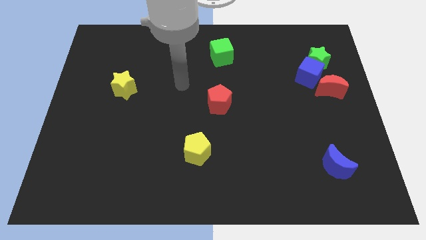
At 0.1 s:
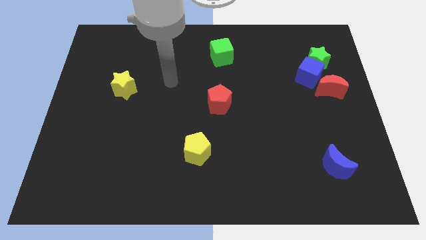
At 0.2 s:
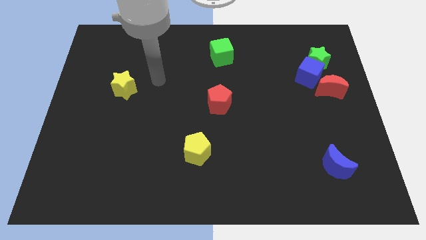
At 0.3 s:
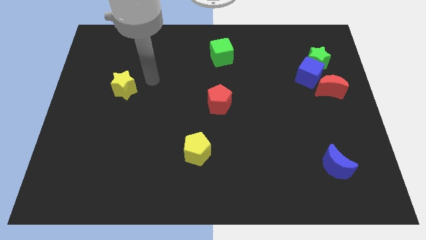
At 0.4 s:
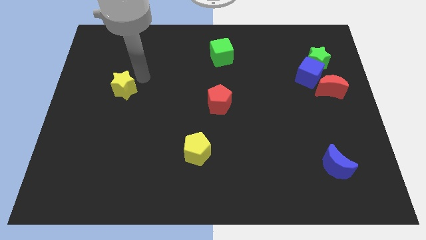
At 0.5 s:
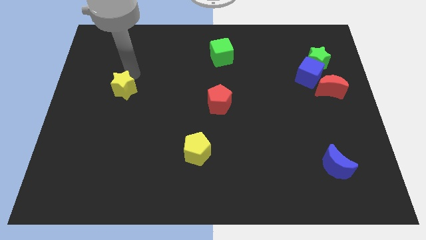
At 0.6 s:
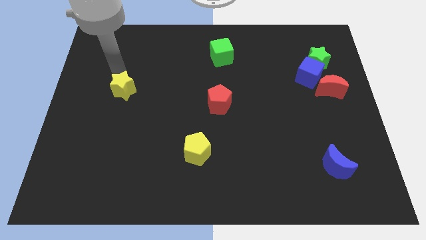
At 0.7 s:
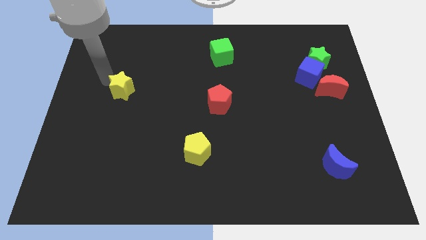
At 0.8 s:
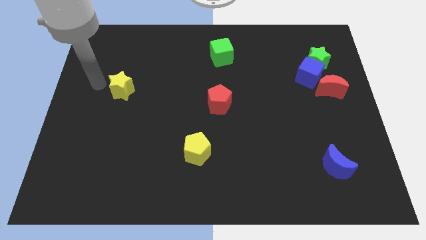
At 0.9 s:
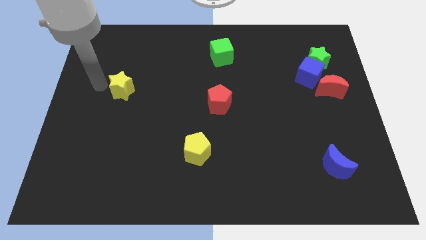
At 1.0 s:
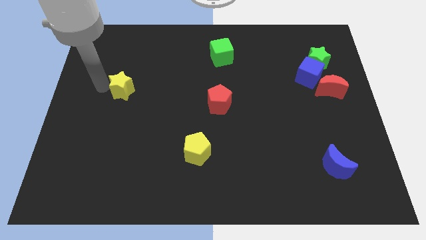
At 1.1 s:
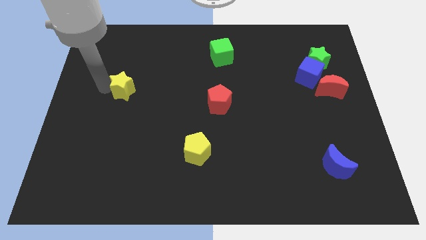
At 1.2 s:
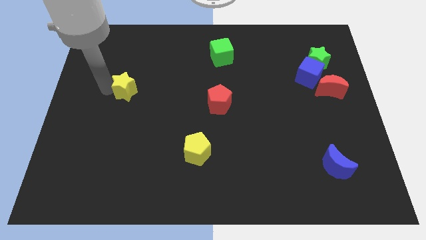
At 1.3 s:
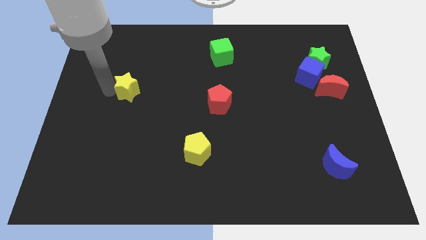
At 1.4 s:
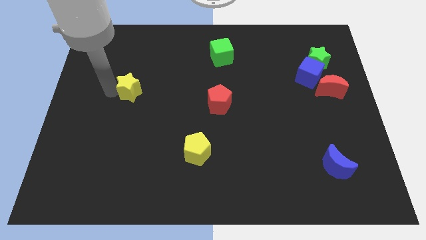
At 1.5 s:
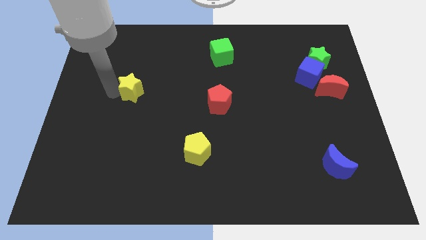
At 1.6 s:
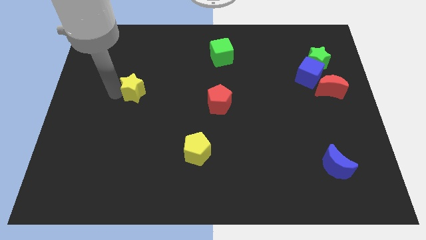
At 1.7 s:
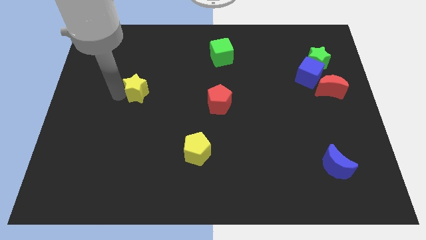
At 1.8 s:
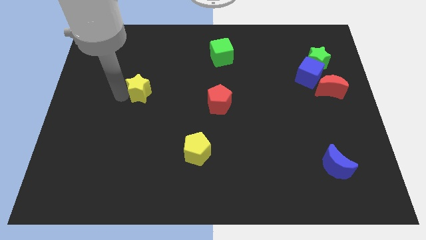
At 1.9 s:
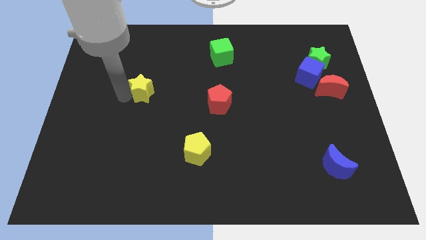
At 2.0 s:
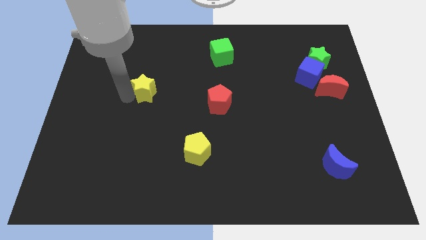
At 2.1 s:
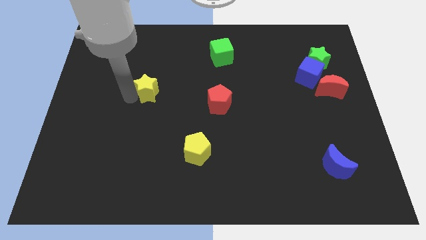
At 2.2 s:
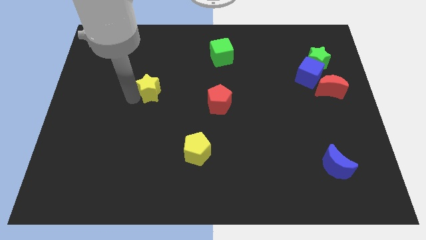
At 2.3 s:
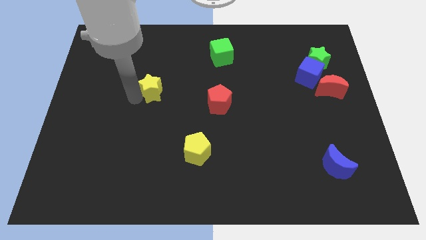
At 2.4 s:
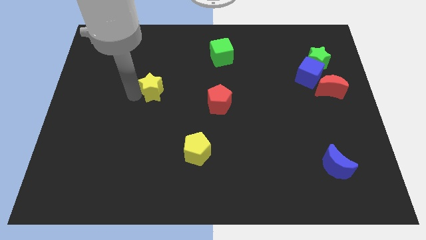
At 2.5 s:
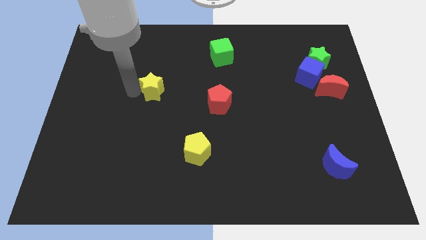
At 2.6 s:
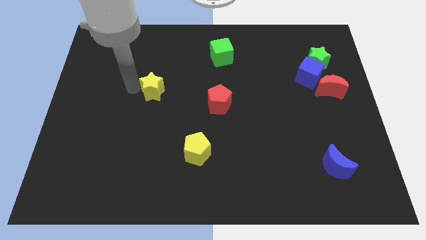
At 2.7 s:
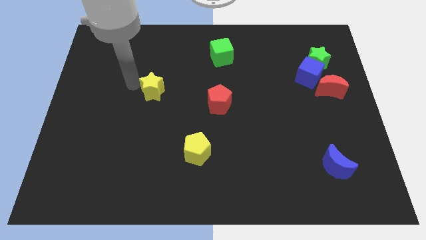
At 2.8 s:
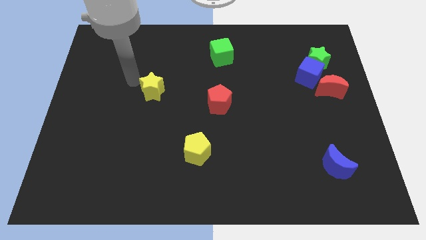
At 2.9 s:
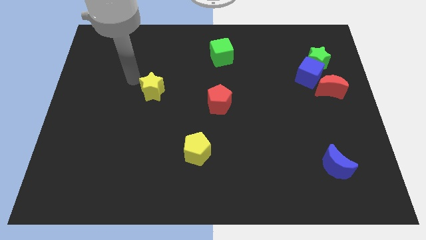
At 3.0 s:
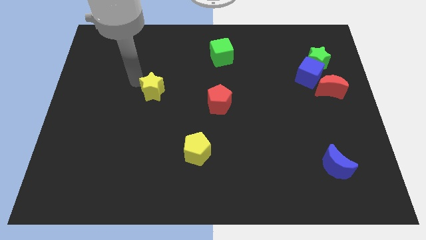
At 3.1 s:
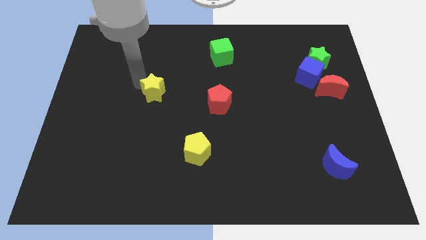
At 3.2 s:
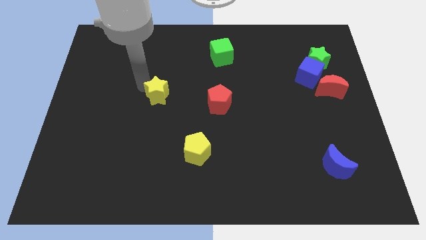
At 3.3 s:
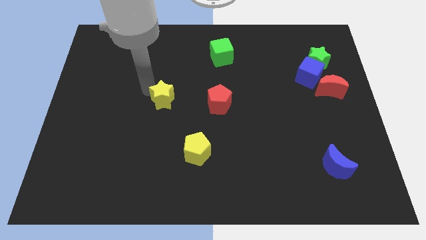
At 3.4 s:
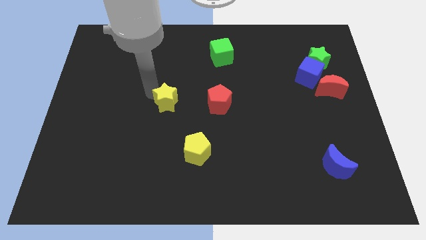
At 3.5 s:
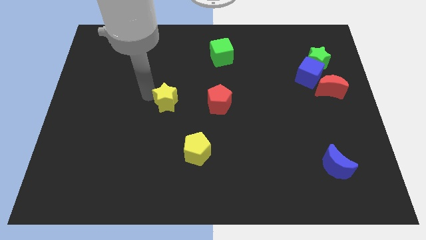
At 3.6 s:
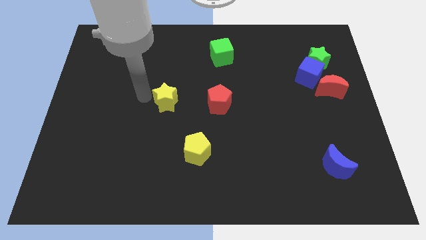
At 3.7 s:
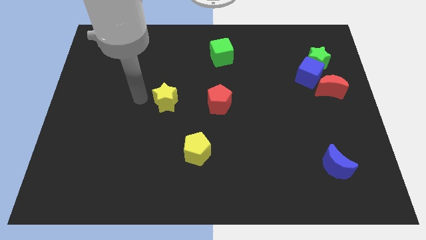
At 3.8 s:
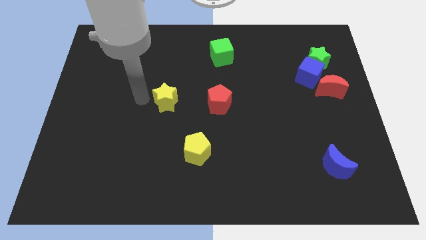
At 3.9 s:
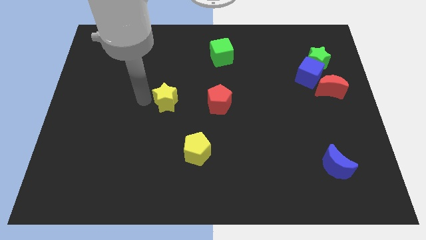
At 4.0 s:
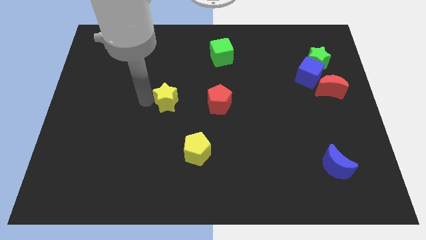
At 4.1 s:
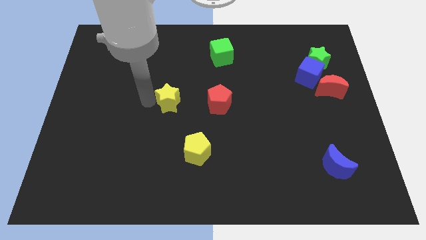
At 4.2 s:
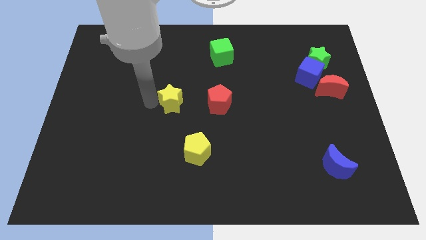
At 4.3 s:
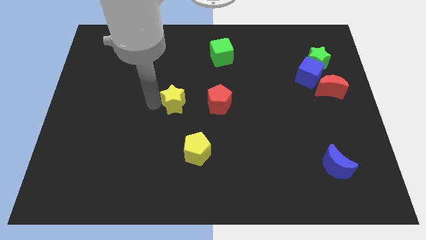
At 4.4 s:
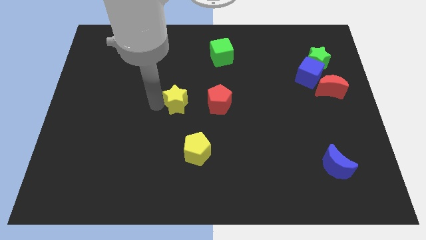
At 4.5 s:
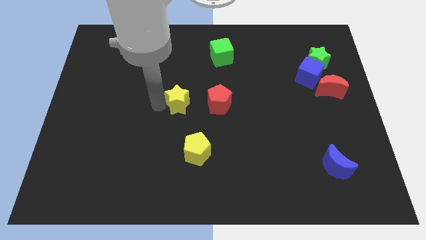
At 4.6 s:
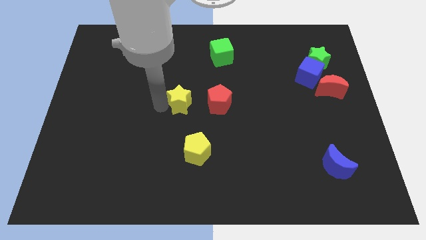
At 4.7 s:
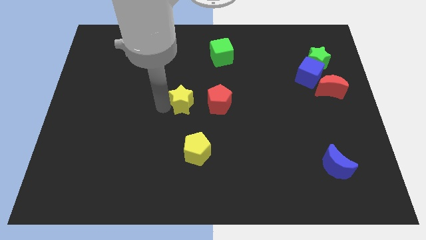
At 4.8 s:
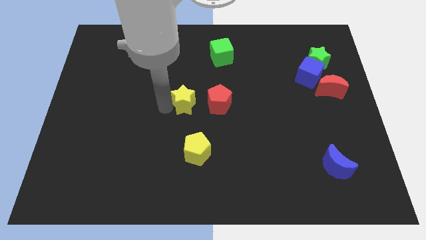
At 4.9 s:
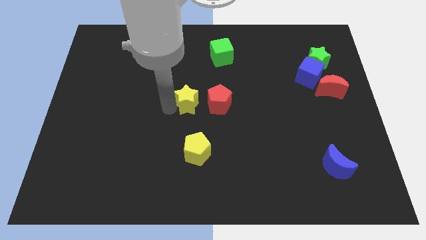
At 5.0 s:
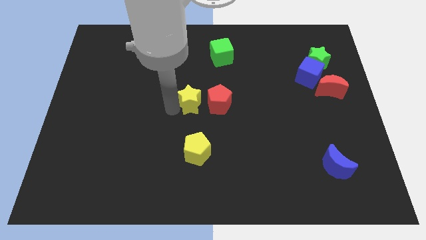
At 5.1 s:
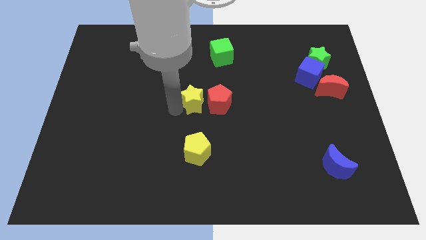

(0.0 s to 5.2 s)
put the yellow star next to the red pentagon

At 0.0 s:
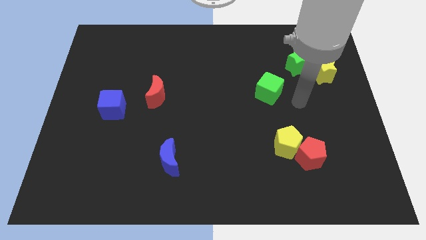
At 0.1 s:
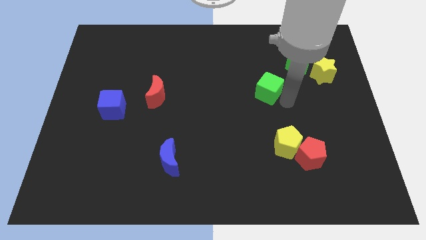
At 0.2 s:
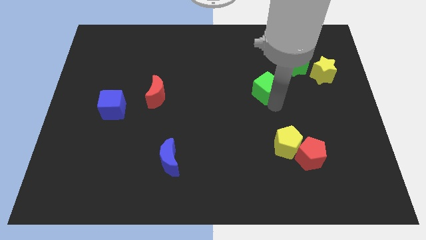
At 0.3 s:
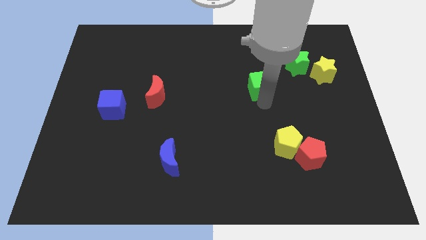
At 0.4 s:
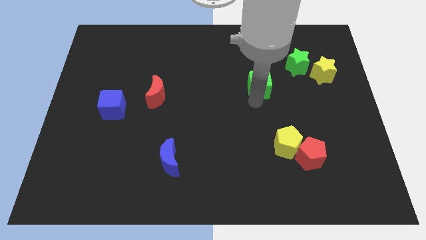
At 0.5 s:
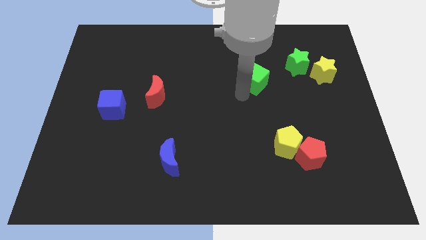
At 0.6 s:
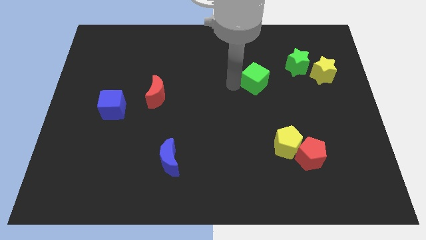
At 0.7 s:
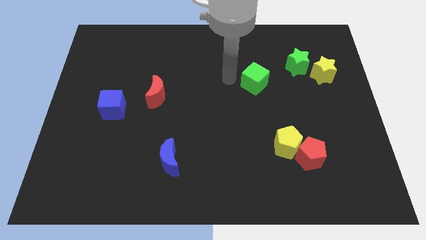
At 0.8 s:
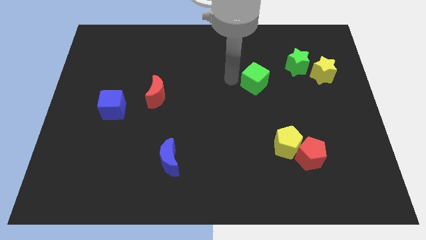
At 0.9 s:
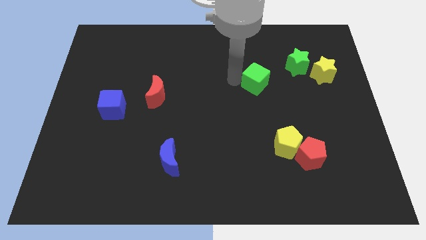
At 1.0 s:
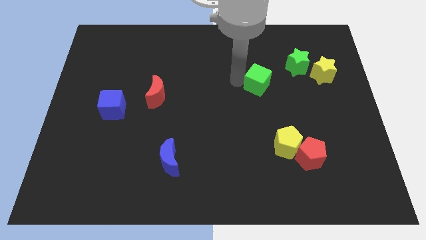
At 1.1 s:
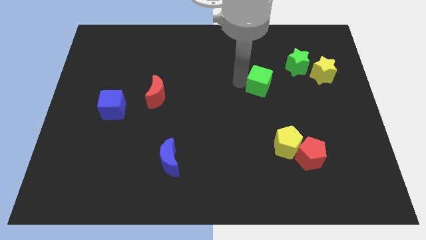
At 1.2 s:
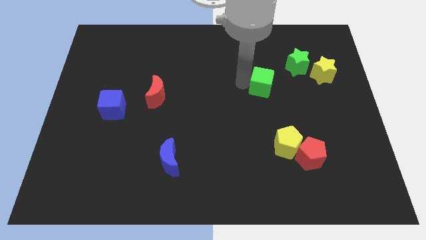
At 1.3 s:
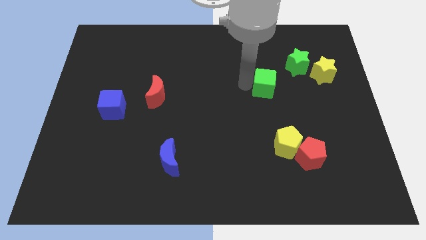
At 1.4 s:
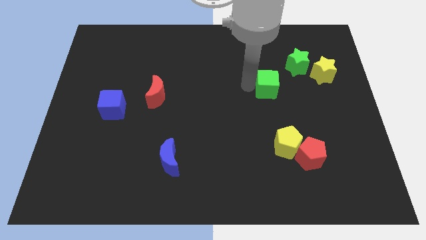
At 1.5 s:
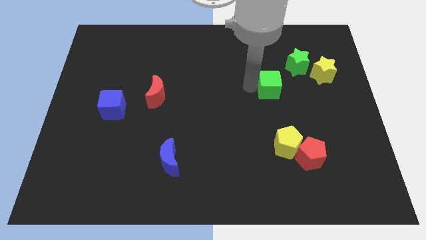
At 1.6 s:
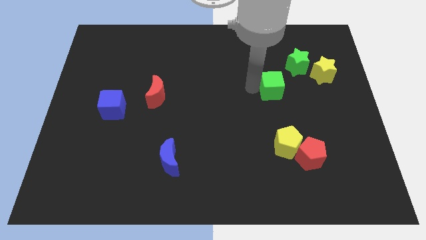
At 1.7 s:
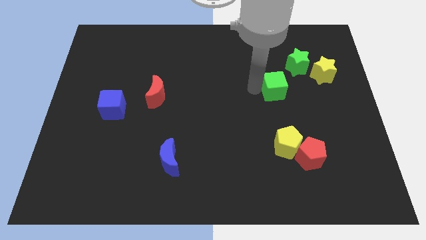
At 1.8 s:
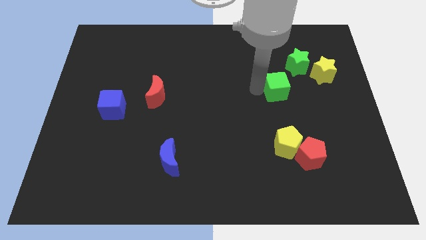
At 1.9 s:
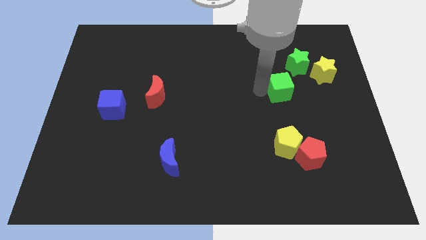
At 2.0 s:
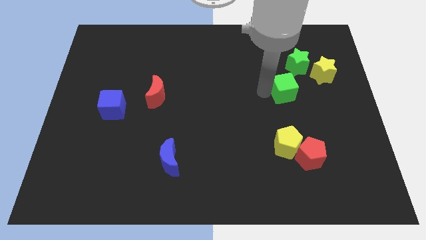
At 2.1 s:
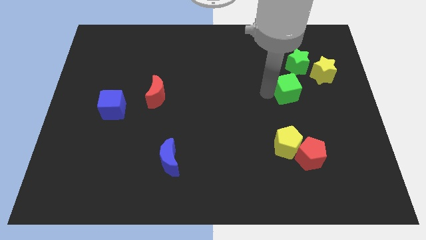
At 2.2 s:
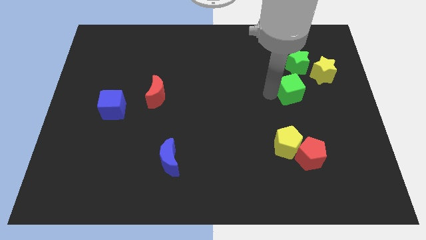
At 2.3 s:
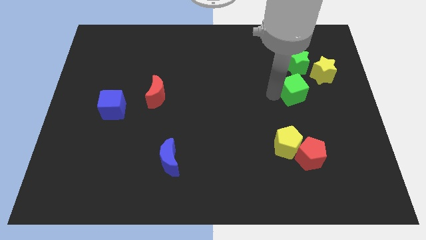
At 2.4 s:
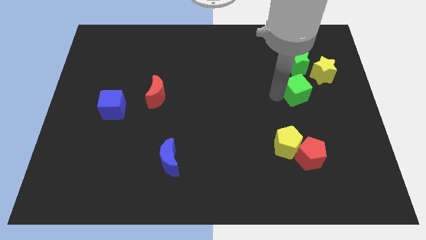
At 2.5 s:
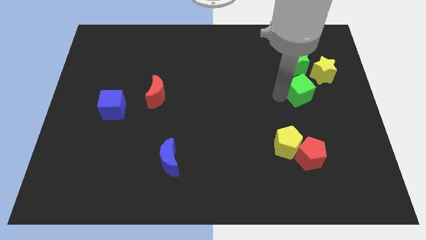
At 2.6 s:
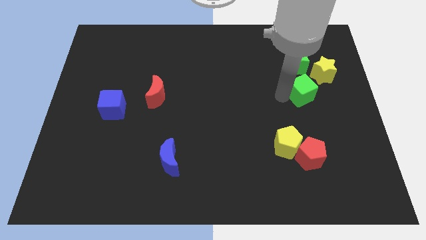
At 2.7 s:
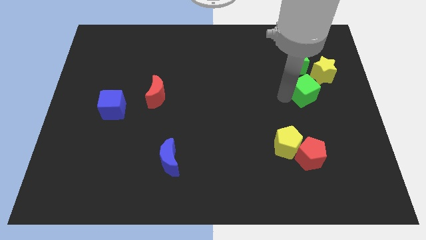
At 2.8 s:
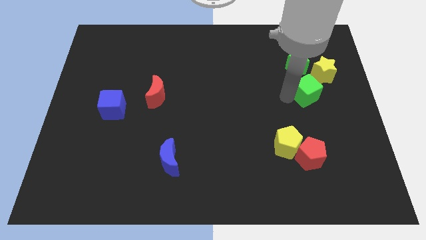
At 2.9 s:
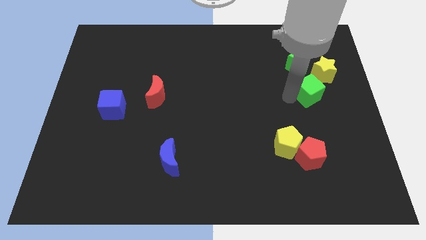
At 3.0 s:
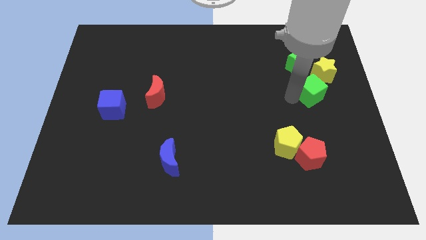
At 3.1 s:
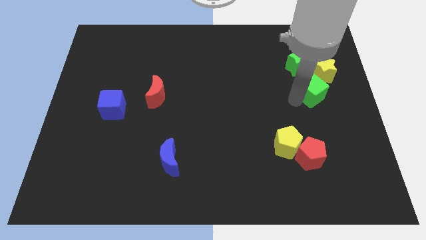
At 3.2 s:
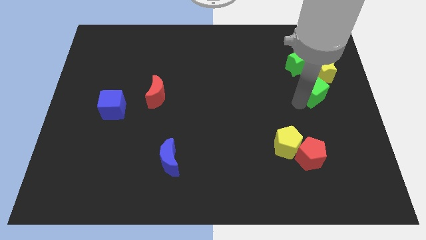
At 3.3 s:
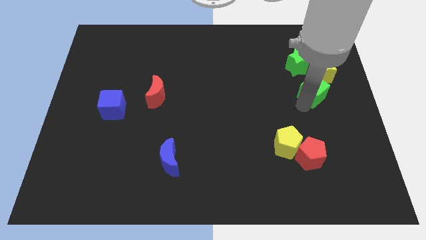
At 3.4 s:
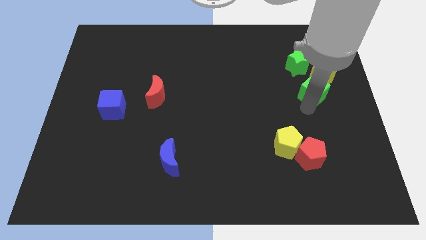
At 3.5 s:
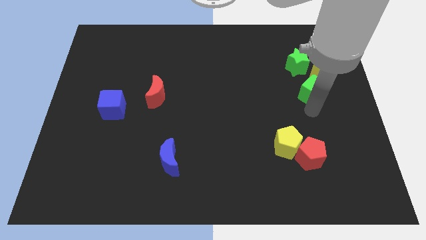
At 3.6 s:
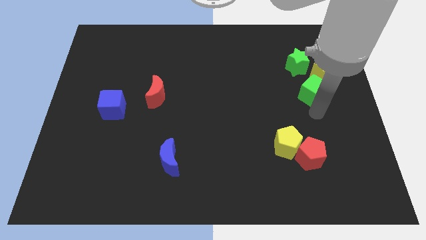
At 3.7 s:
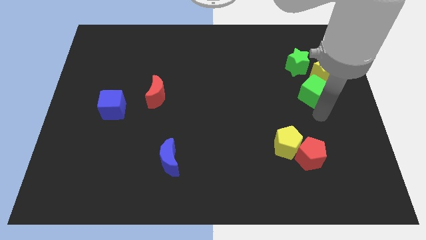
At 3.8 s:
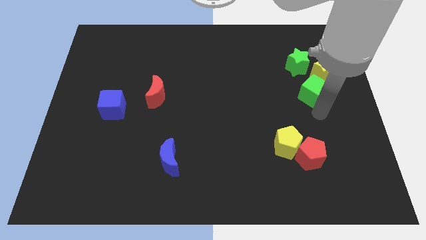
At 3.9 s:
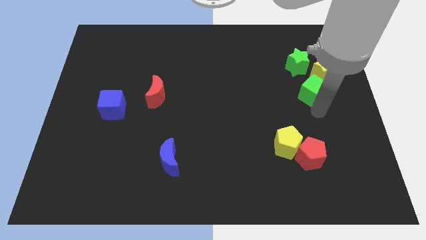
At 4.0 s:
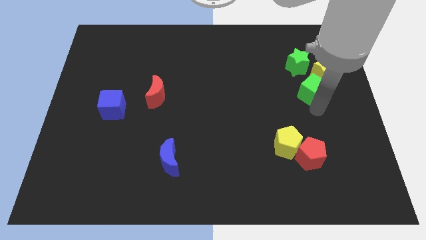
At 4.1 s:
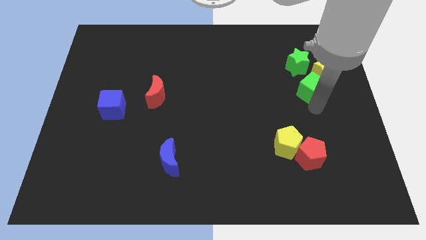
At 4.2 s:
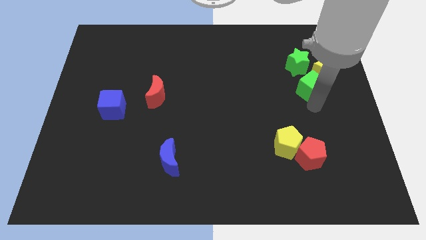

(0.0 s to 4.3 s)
move the green cube next to the yellow star
